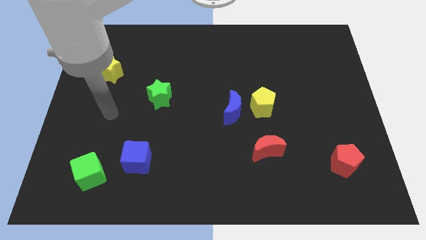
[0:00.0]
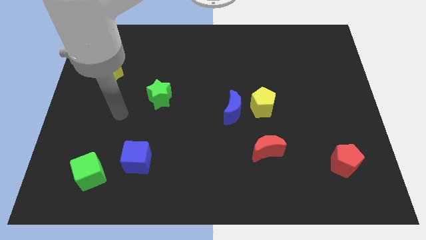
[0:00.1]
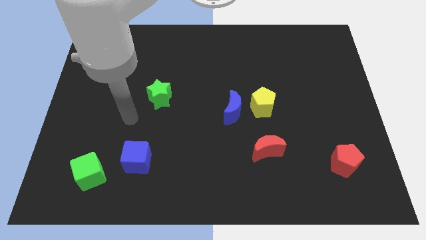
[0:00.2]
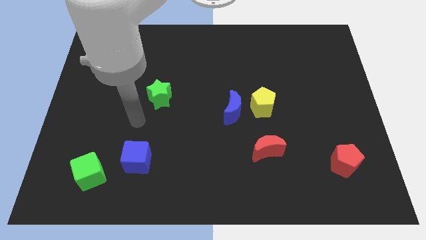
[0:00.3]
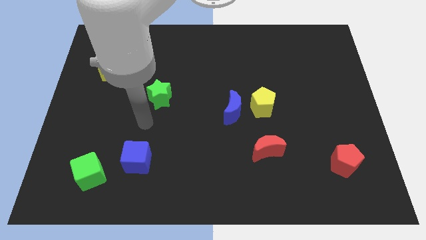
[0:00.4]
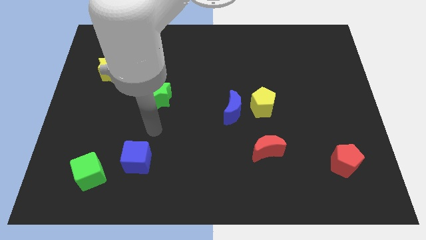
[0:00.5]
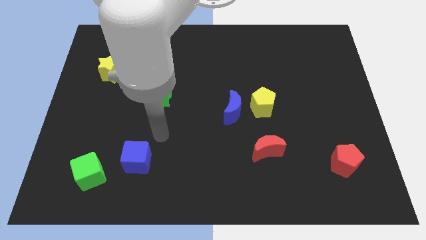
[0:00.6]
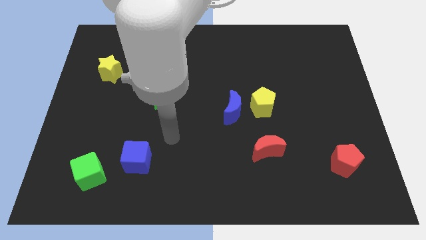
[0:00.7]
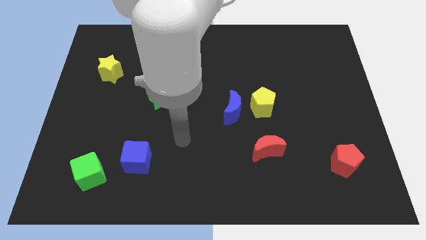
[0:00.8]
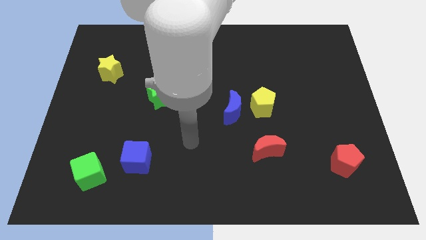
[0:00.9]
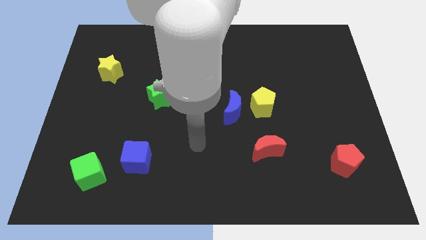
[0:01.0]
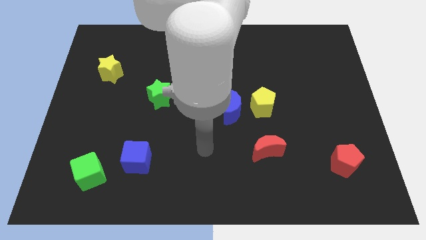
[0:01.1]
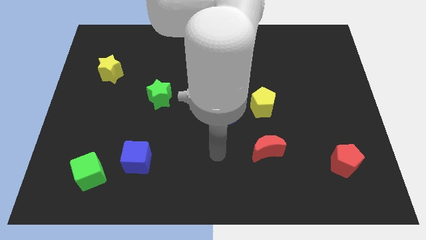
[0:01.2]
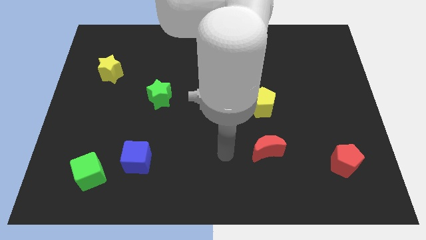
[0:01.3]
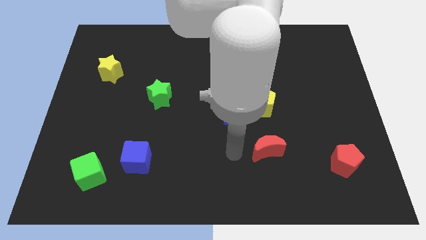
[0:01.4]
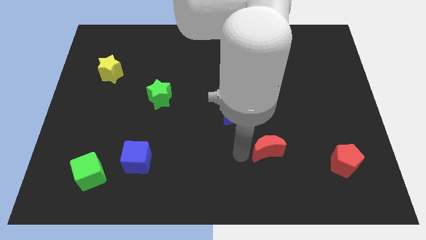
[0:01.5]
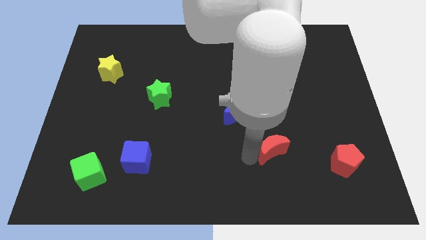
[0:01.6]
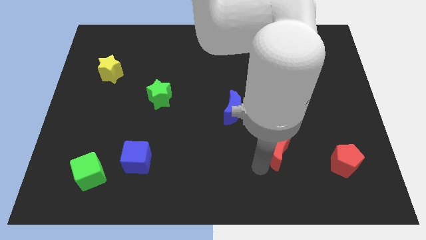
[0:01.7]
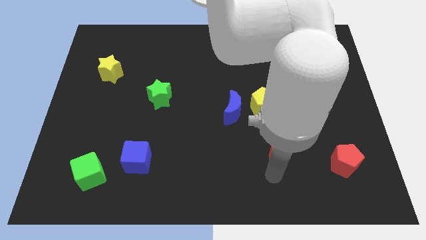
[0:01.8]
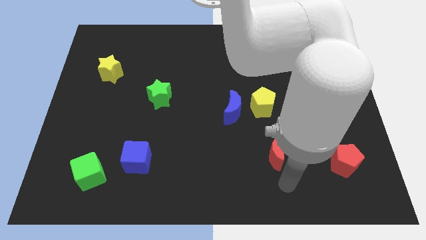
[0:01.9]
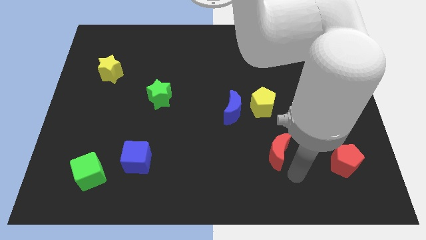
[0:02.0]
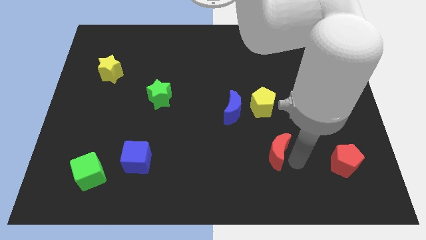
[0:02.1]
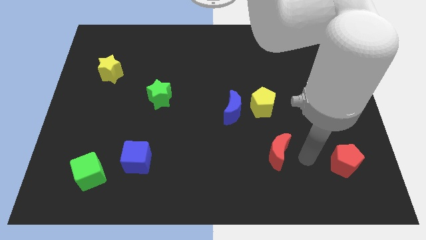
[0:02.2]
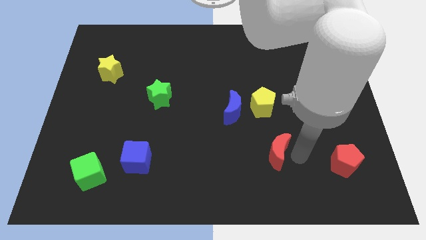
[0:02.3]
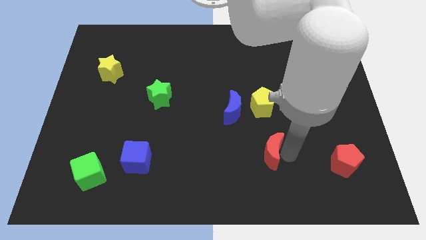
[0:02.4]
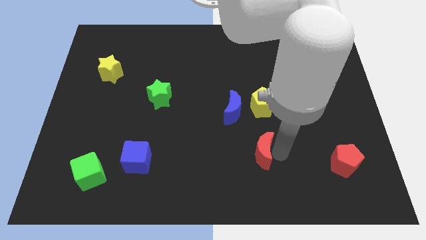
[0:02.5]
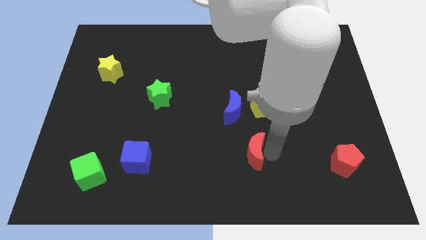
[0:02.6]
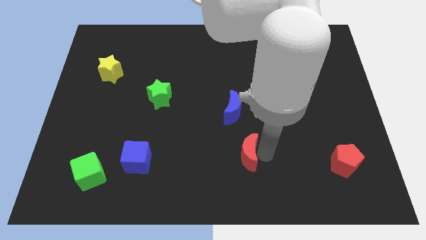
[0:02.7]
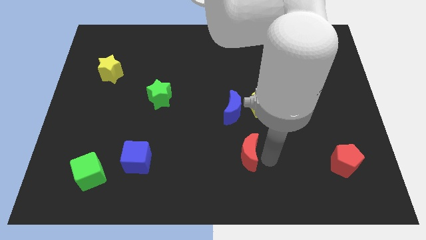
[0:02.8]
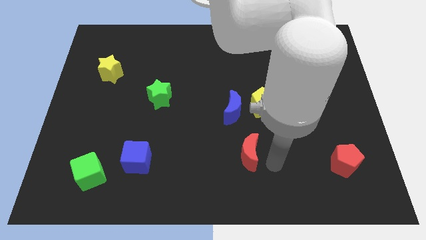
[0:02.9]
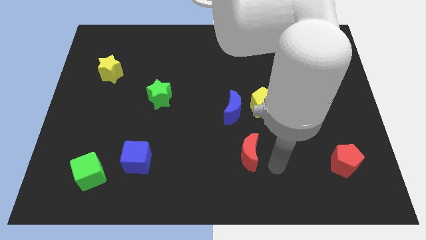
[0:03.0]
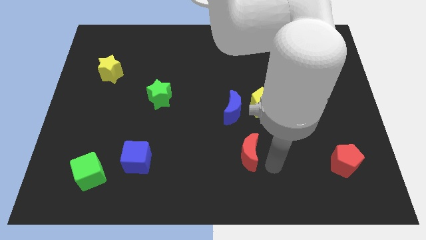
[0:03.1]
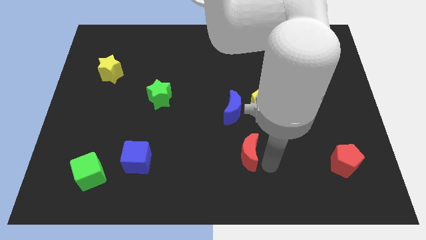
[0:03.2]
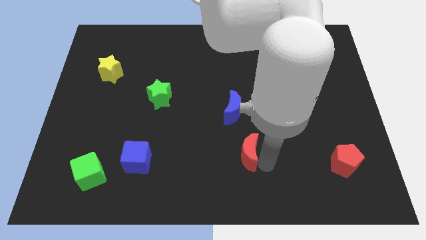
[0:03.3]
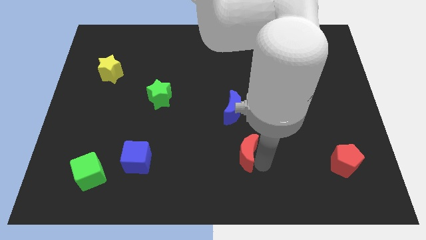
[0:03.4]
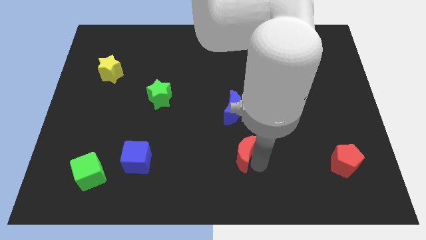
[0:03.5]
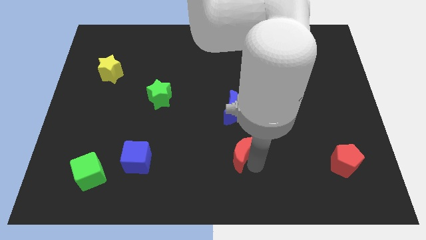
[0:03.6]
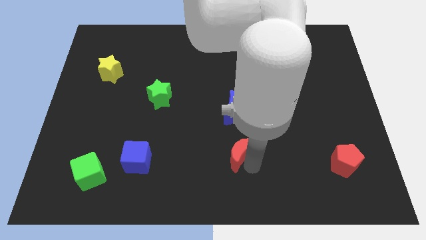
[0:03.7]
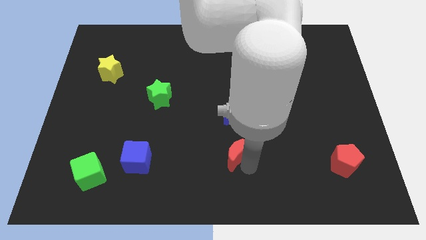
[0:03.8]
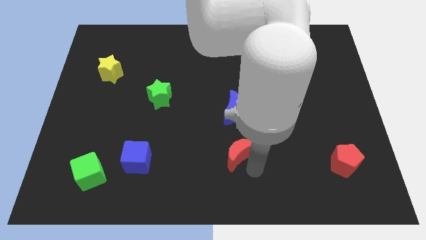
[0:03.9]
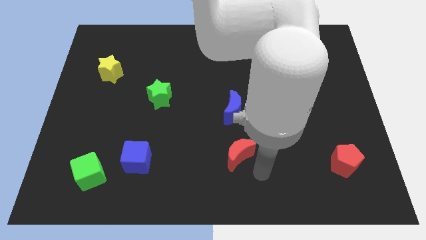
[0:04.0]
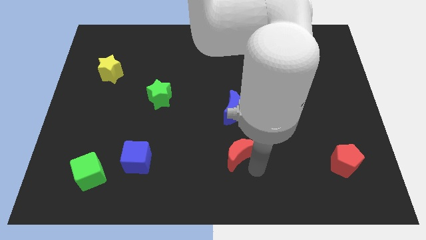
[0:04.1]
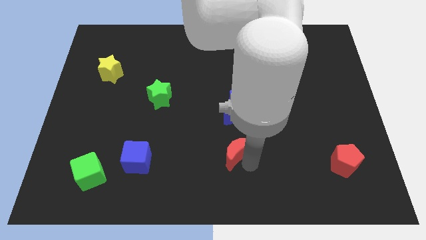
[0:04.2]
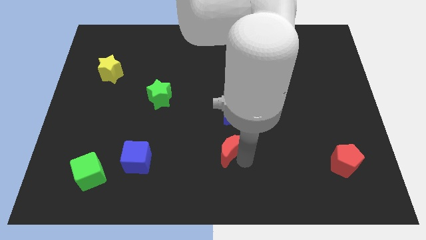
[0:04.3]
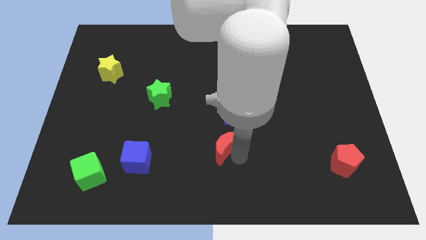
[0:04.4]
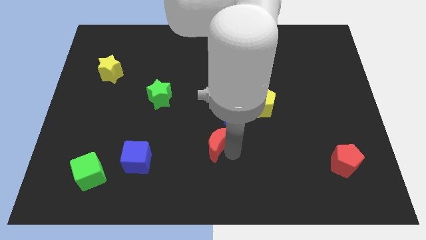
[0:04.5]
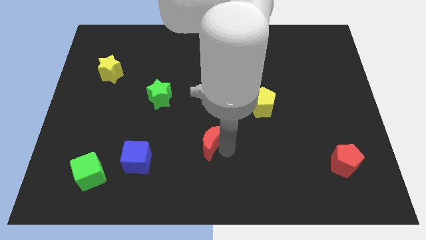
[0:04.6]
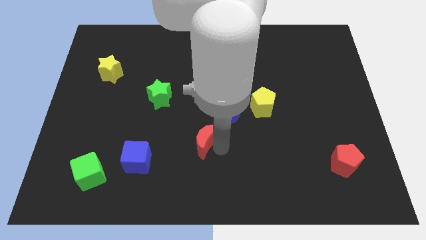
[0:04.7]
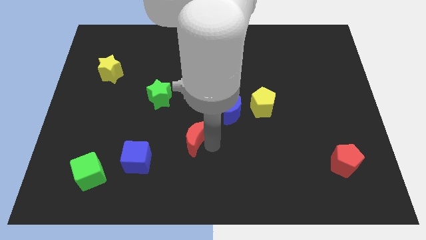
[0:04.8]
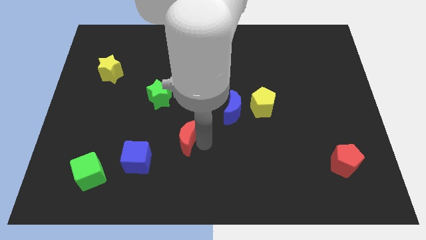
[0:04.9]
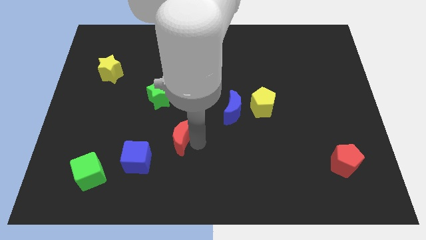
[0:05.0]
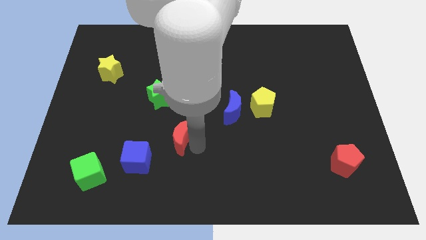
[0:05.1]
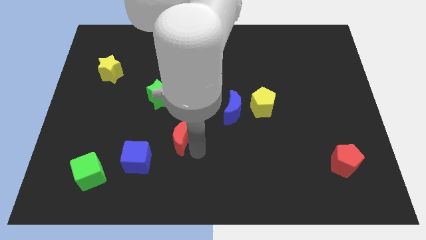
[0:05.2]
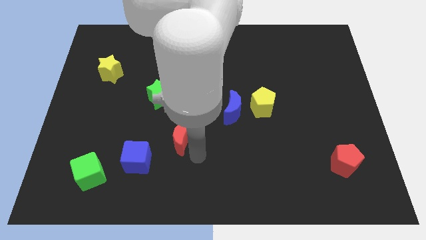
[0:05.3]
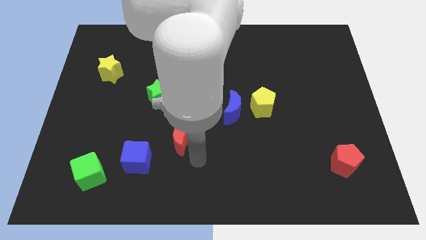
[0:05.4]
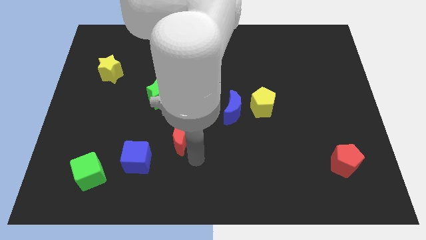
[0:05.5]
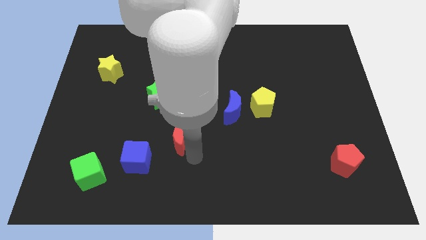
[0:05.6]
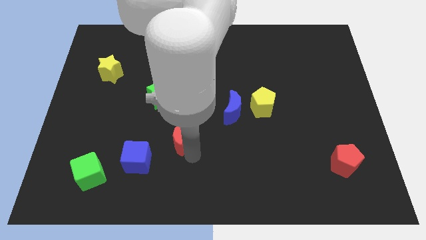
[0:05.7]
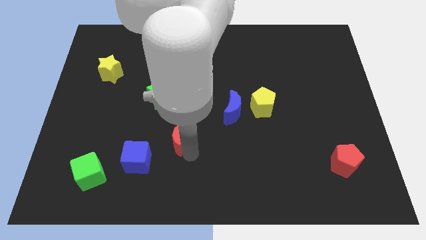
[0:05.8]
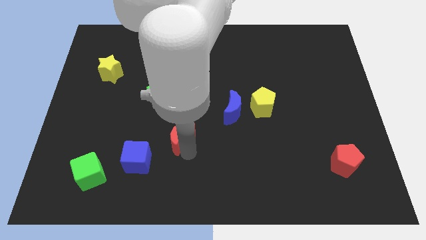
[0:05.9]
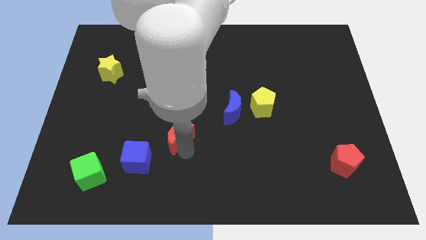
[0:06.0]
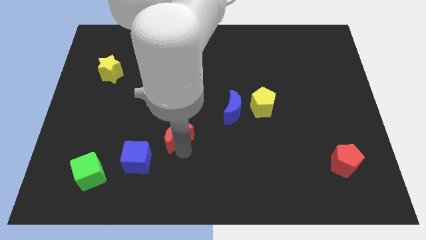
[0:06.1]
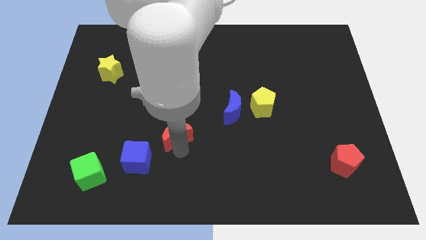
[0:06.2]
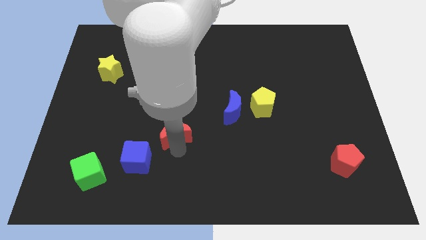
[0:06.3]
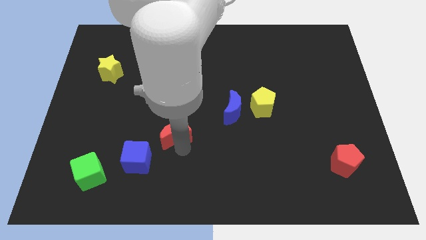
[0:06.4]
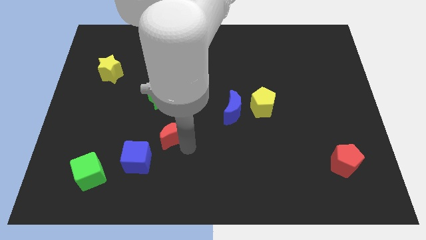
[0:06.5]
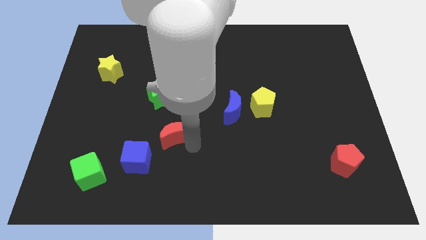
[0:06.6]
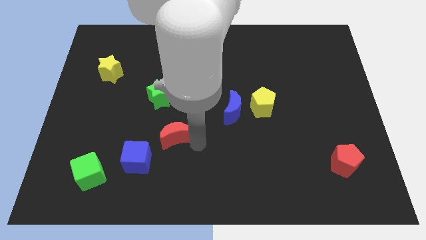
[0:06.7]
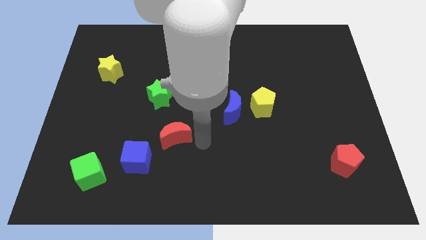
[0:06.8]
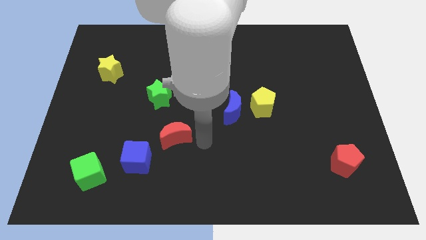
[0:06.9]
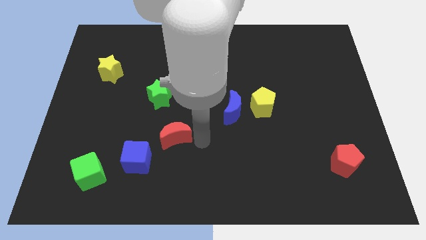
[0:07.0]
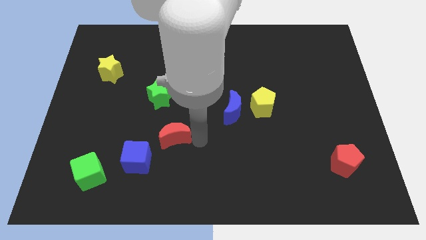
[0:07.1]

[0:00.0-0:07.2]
slide the red moon to the left

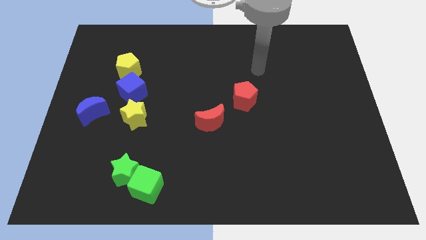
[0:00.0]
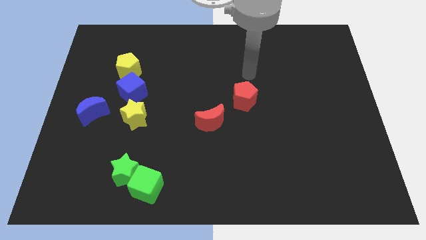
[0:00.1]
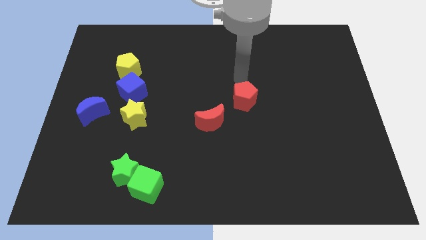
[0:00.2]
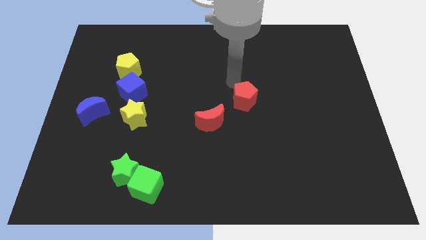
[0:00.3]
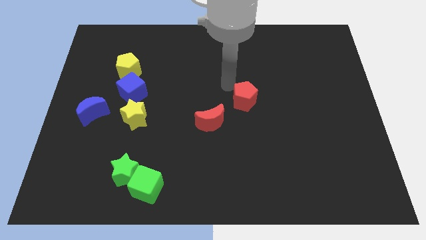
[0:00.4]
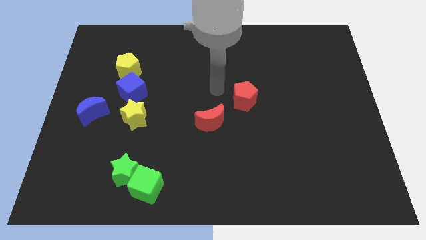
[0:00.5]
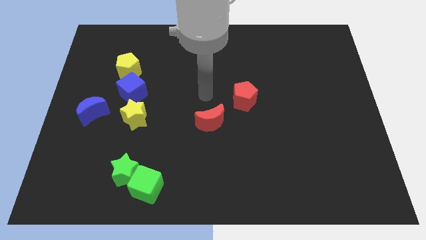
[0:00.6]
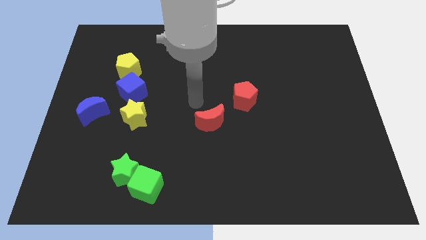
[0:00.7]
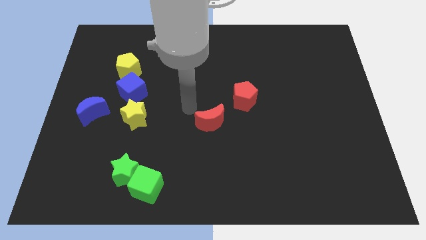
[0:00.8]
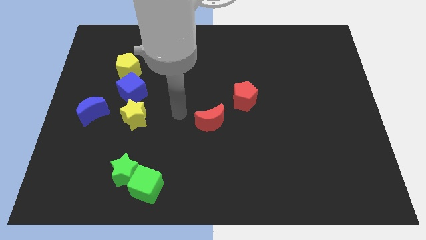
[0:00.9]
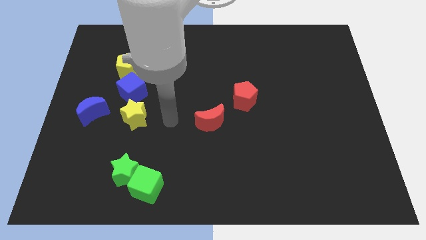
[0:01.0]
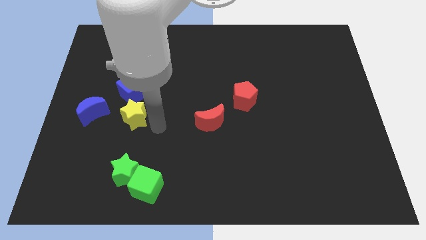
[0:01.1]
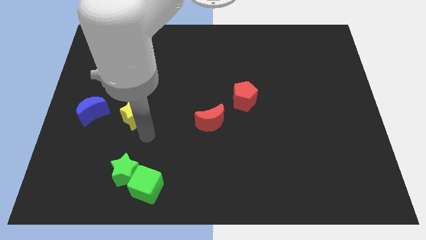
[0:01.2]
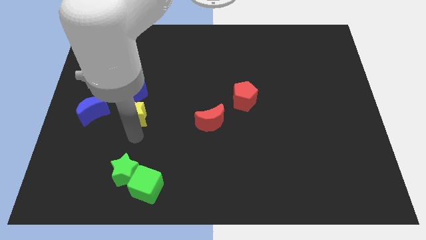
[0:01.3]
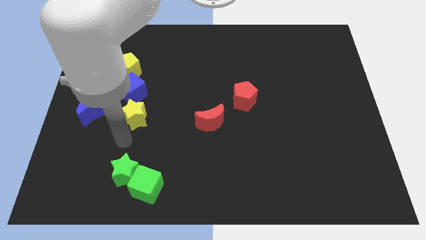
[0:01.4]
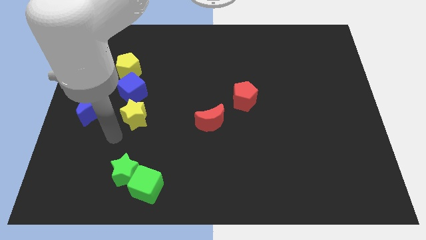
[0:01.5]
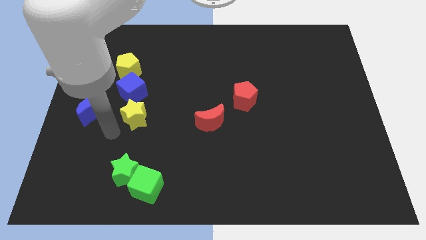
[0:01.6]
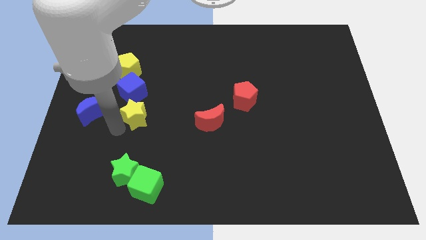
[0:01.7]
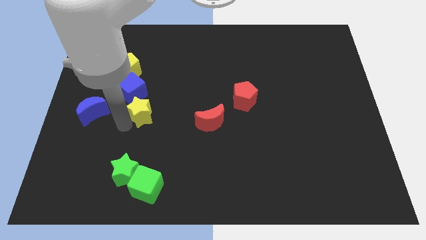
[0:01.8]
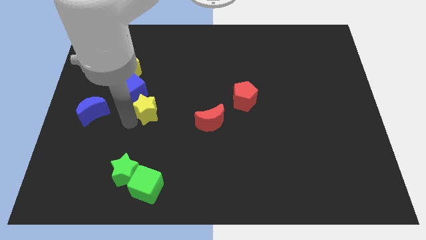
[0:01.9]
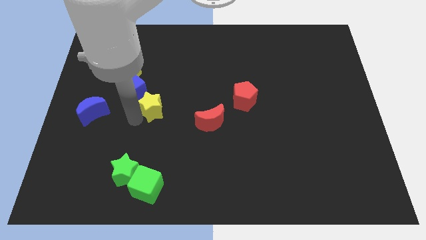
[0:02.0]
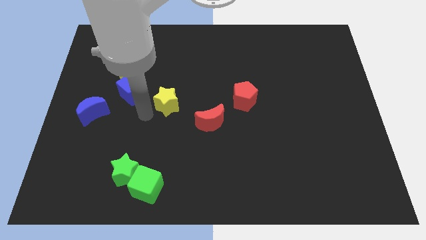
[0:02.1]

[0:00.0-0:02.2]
slide the yellow star a little upwards and right diagonally
